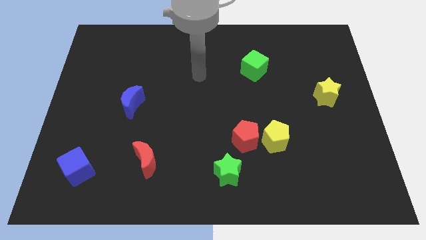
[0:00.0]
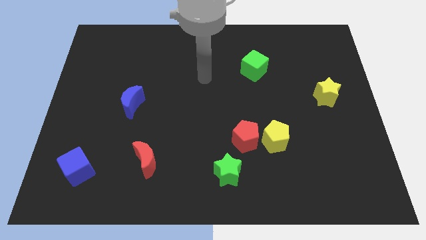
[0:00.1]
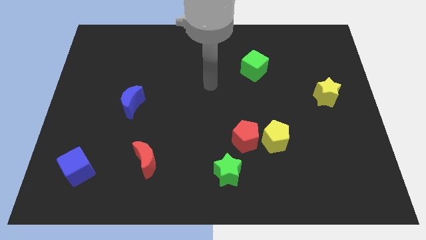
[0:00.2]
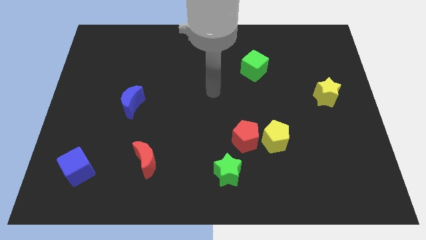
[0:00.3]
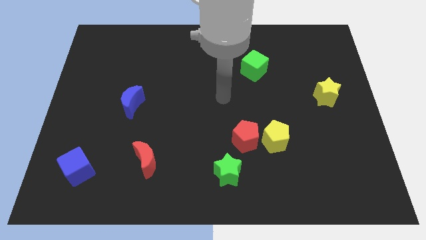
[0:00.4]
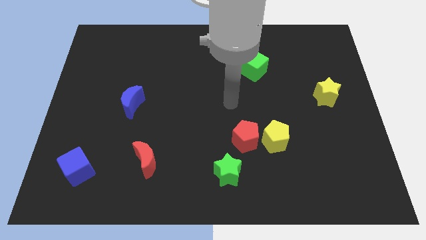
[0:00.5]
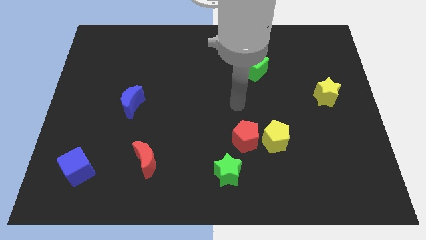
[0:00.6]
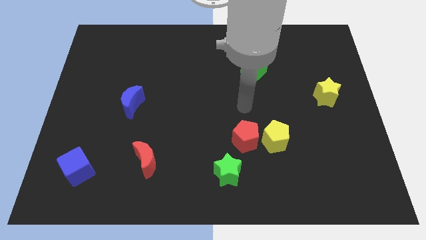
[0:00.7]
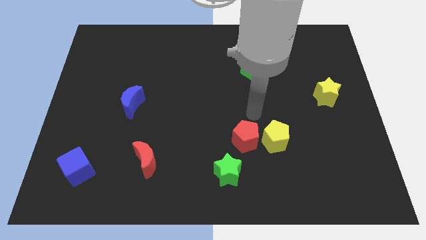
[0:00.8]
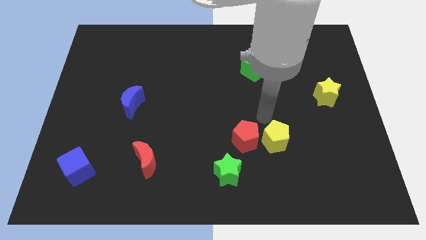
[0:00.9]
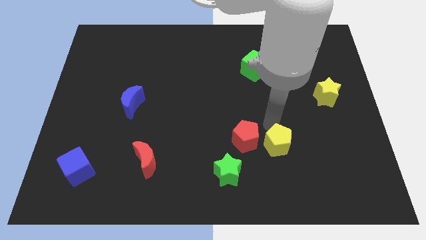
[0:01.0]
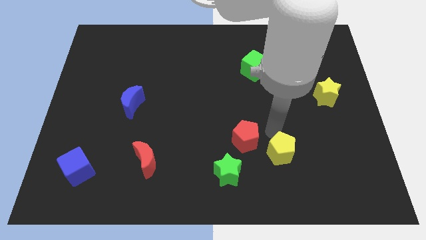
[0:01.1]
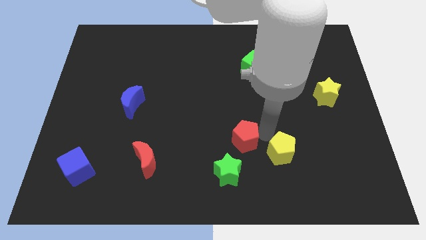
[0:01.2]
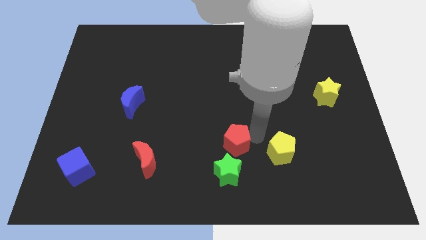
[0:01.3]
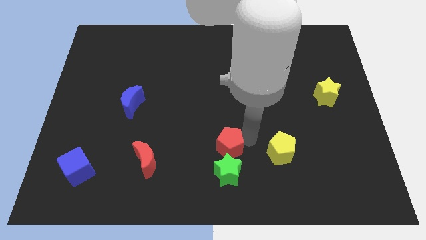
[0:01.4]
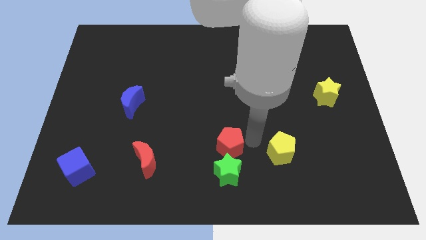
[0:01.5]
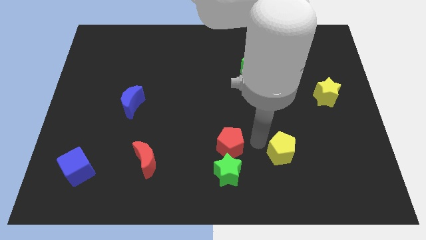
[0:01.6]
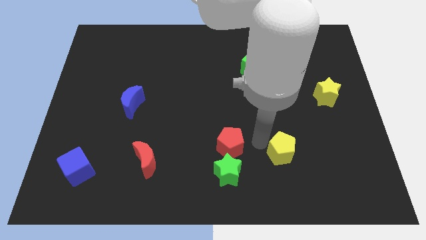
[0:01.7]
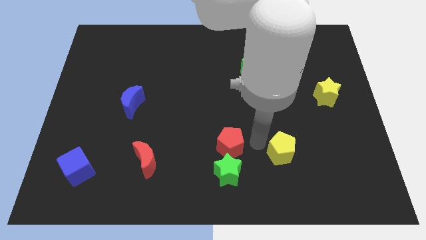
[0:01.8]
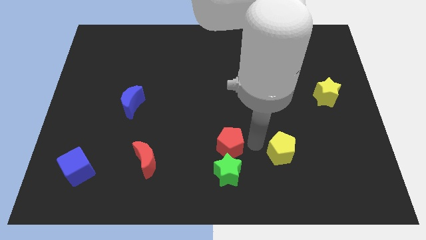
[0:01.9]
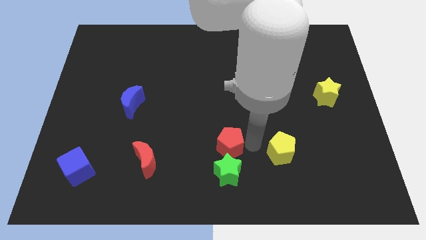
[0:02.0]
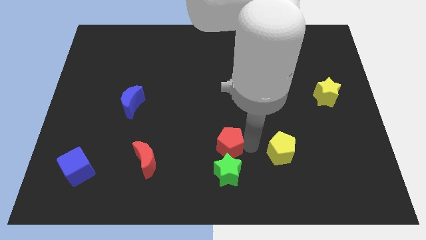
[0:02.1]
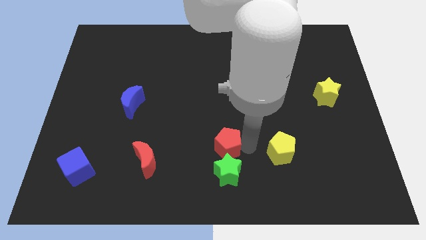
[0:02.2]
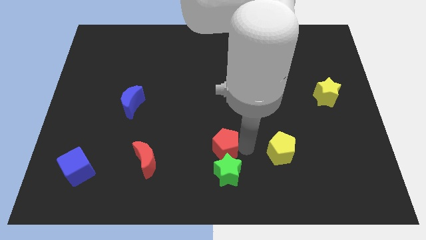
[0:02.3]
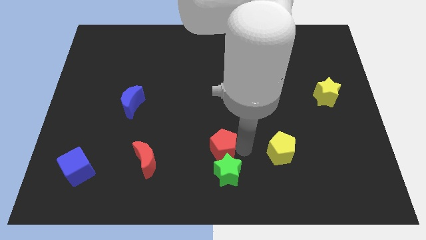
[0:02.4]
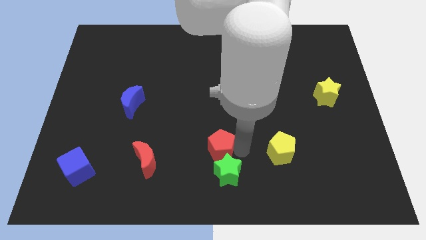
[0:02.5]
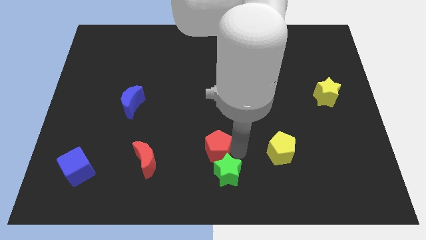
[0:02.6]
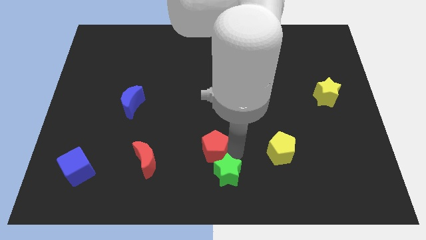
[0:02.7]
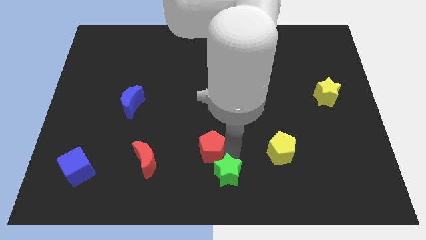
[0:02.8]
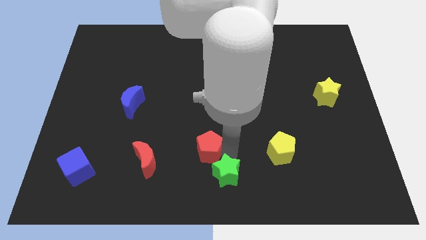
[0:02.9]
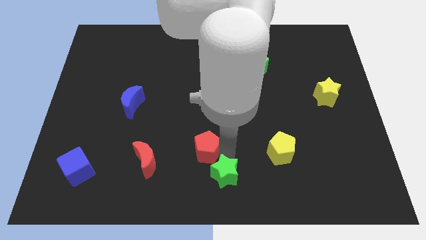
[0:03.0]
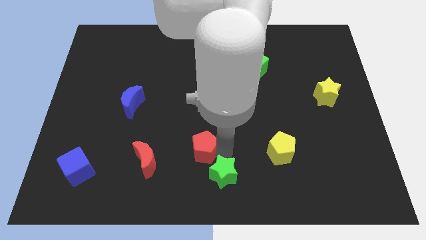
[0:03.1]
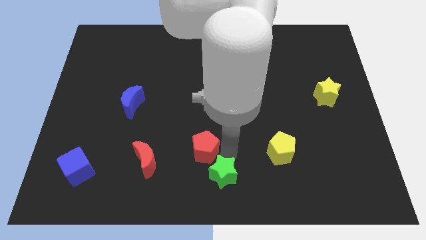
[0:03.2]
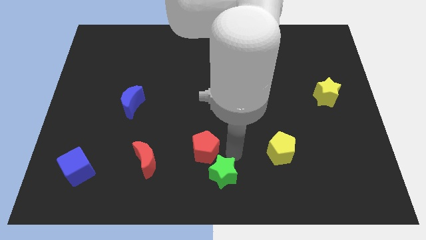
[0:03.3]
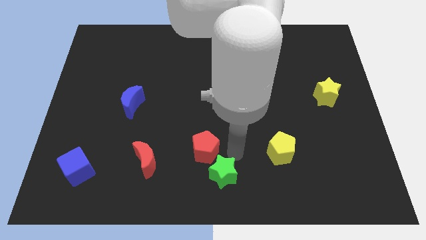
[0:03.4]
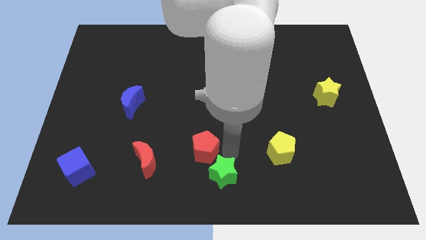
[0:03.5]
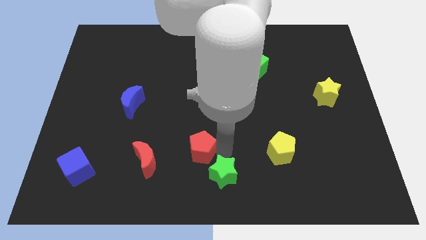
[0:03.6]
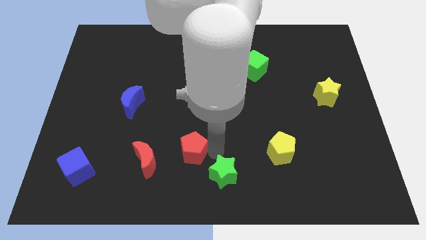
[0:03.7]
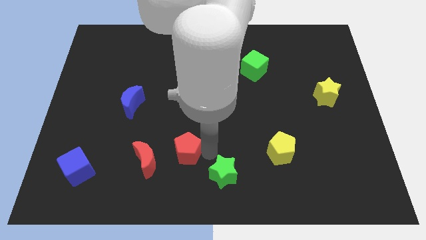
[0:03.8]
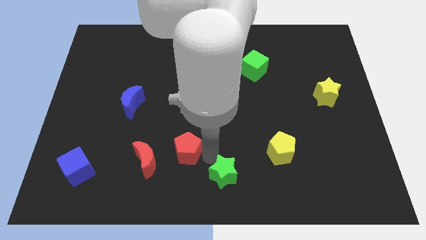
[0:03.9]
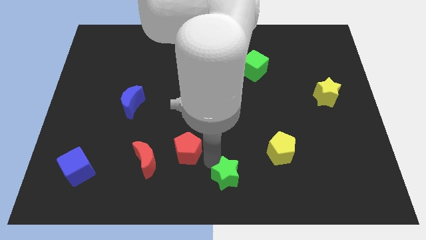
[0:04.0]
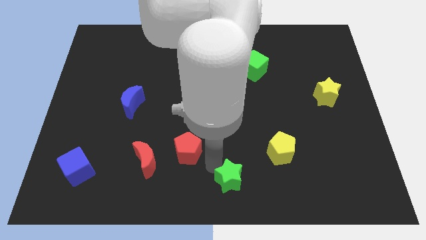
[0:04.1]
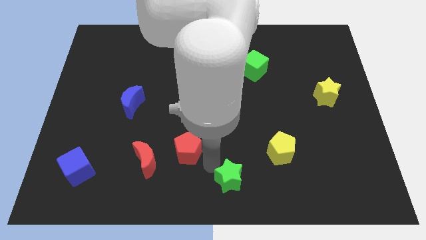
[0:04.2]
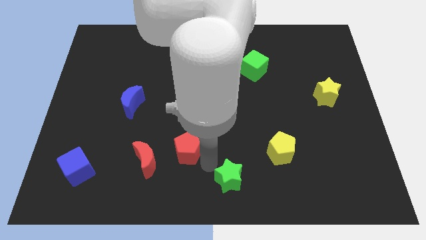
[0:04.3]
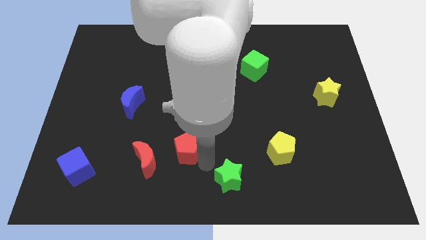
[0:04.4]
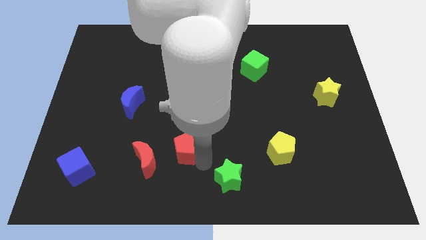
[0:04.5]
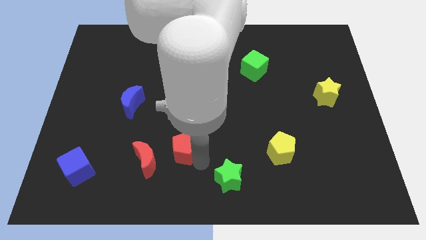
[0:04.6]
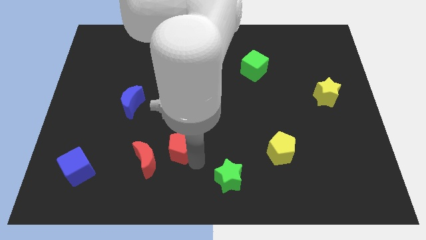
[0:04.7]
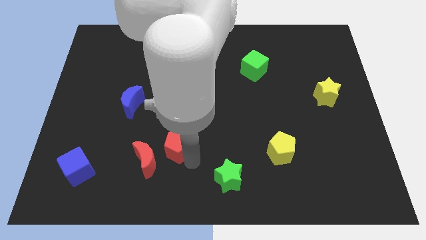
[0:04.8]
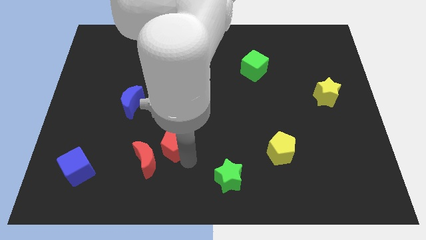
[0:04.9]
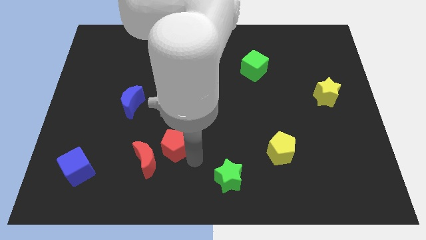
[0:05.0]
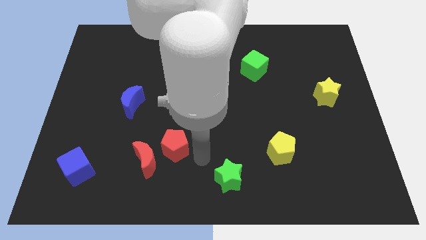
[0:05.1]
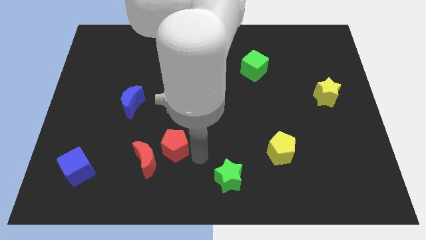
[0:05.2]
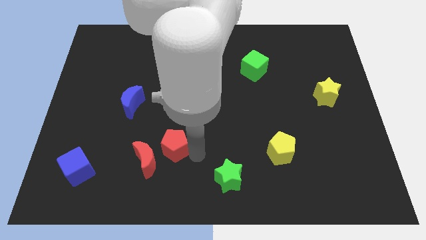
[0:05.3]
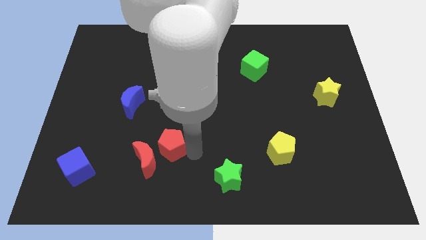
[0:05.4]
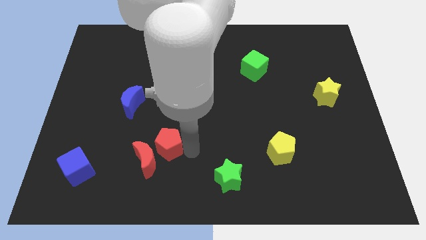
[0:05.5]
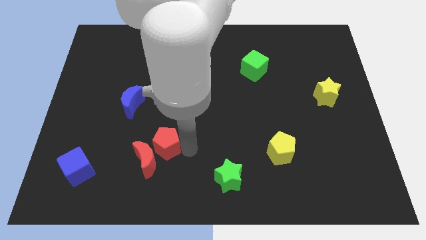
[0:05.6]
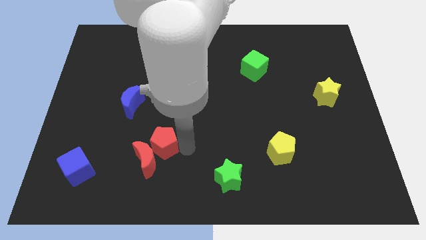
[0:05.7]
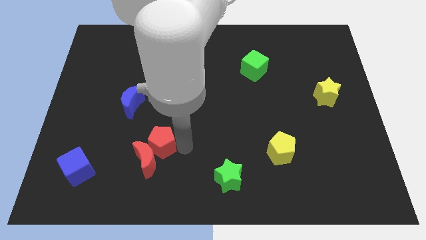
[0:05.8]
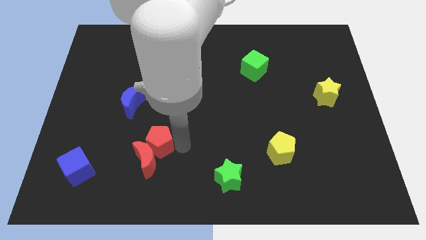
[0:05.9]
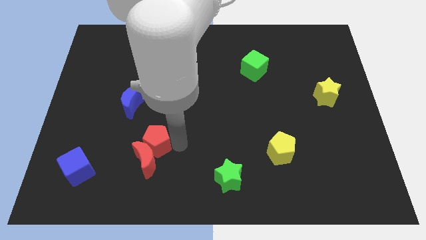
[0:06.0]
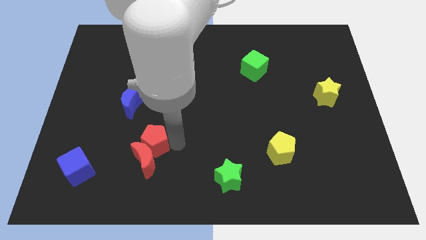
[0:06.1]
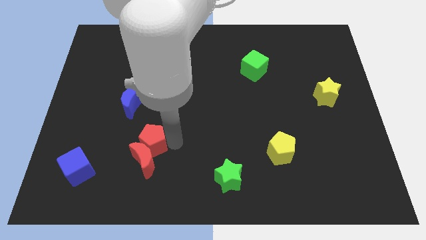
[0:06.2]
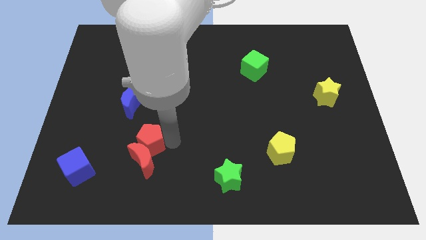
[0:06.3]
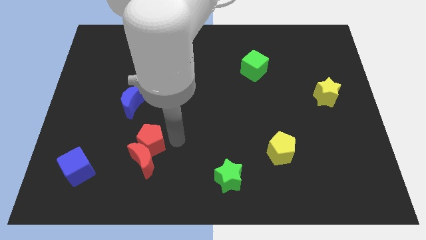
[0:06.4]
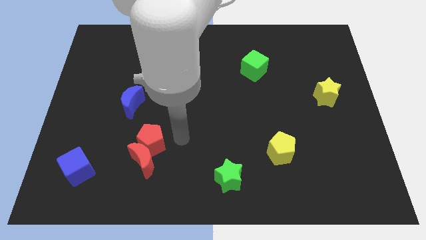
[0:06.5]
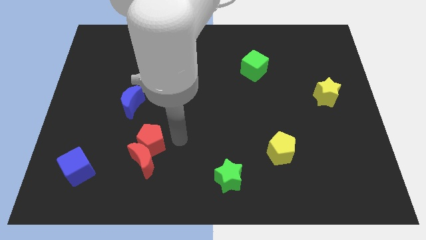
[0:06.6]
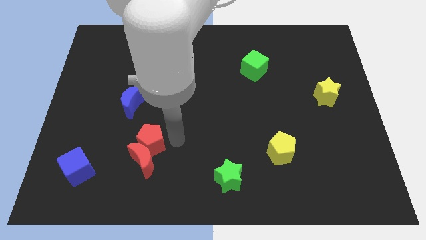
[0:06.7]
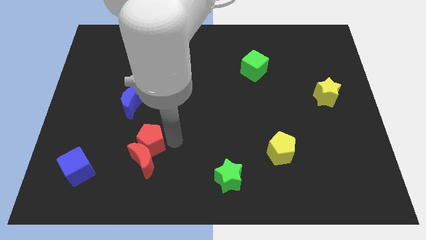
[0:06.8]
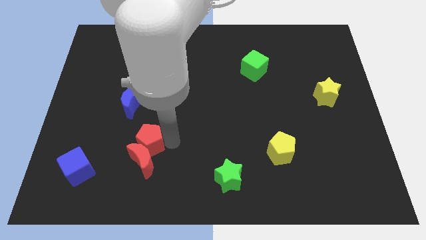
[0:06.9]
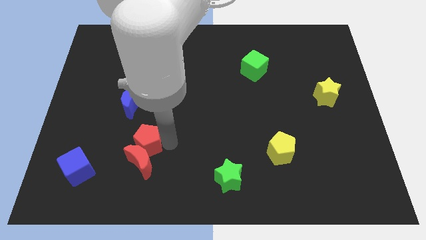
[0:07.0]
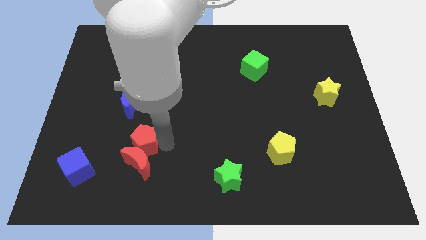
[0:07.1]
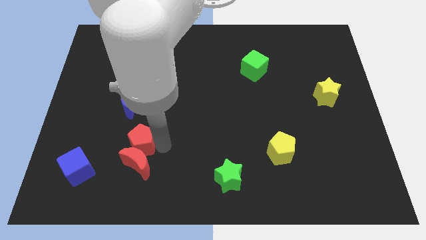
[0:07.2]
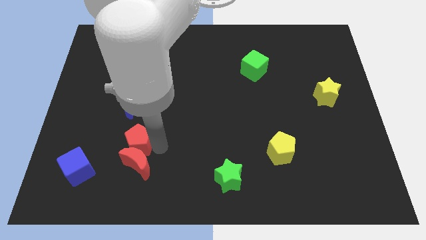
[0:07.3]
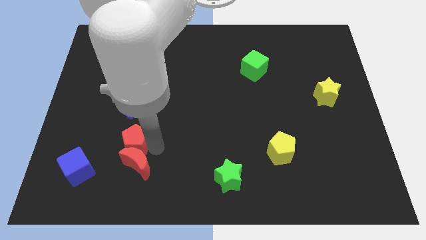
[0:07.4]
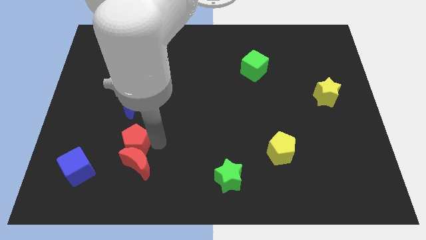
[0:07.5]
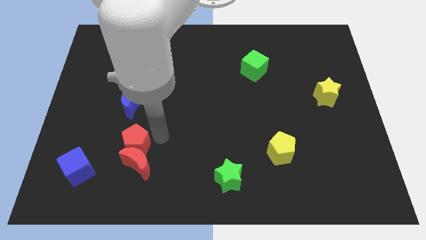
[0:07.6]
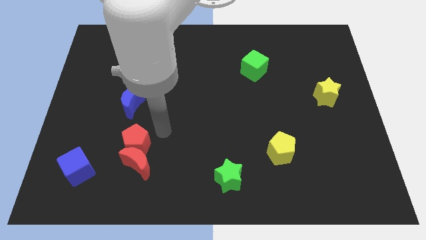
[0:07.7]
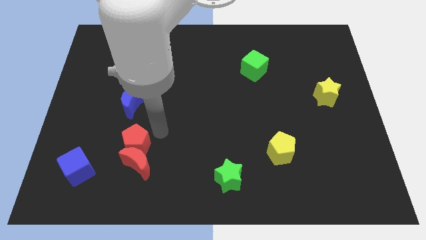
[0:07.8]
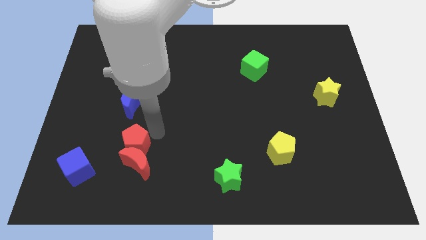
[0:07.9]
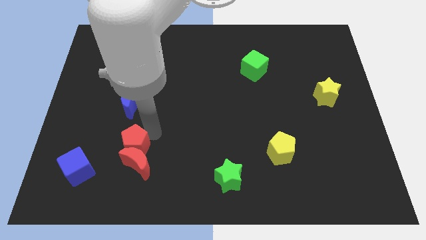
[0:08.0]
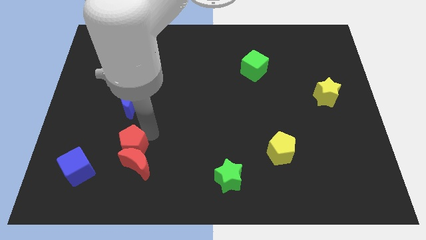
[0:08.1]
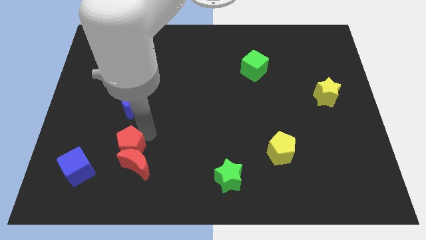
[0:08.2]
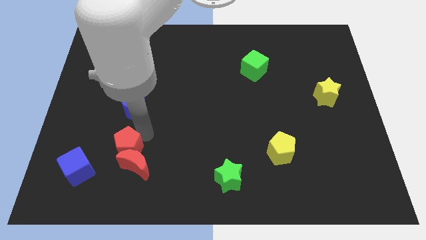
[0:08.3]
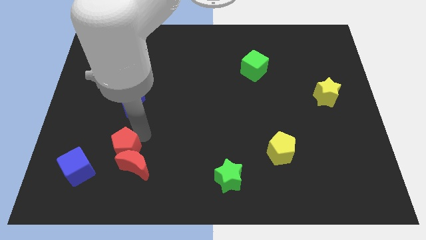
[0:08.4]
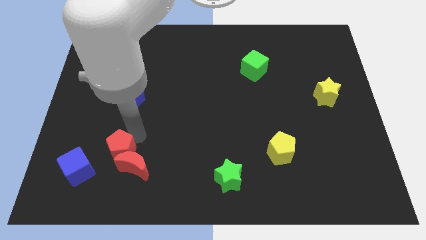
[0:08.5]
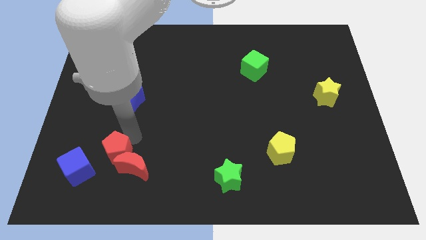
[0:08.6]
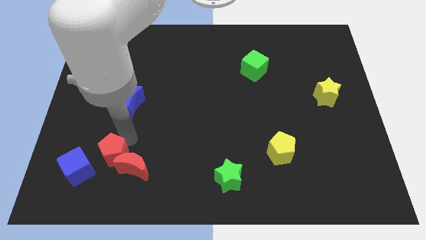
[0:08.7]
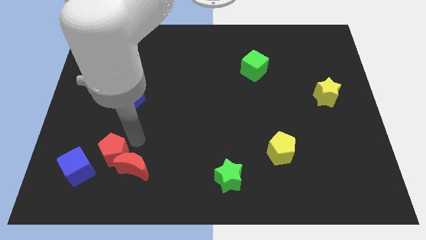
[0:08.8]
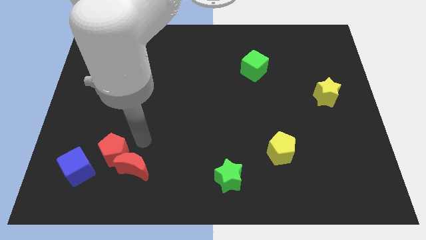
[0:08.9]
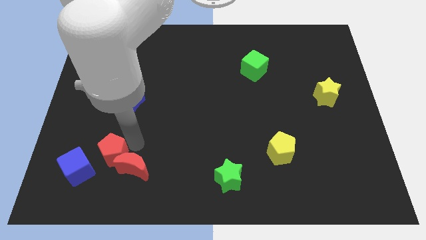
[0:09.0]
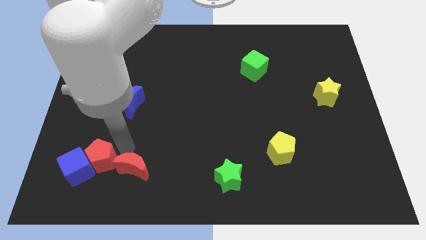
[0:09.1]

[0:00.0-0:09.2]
push the red pentagon to the blue cube
